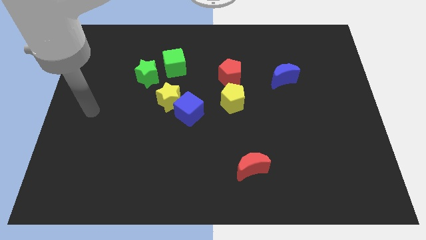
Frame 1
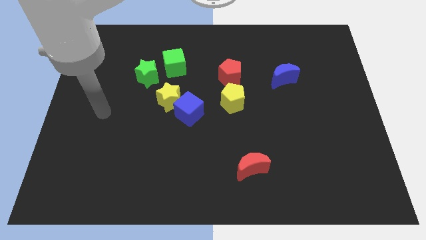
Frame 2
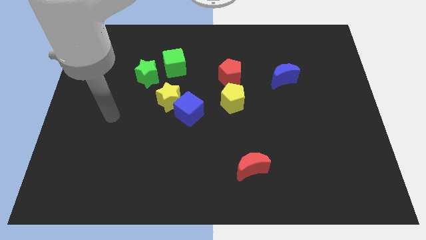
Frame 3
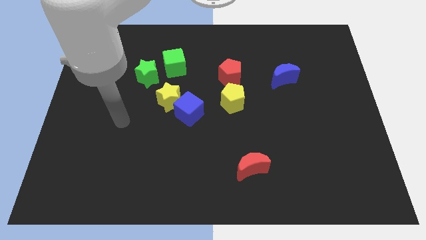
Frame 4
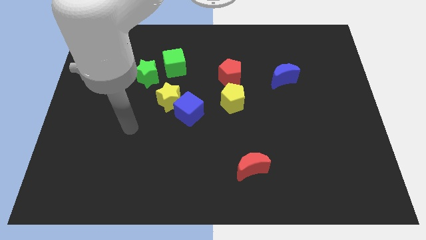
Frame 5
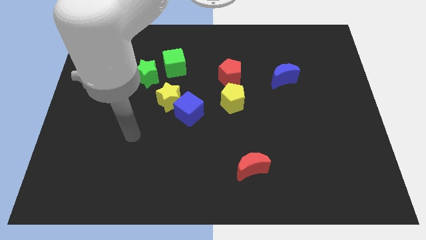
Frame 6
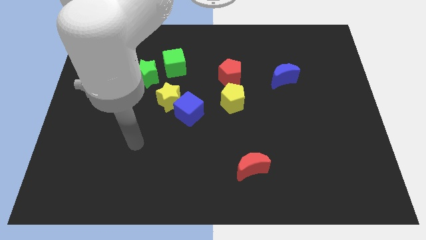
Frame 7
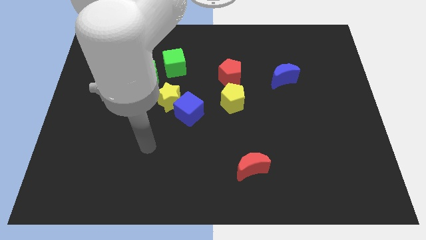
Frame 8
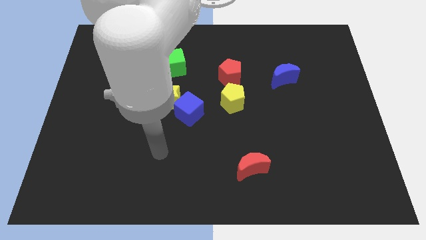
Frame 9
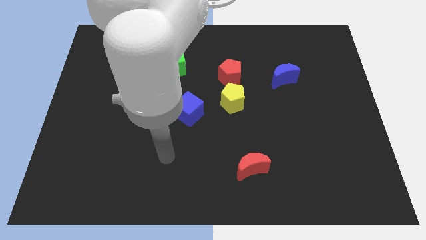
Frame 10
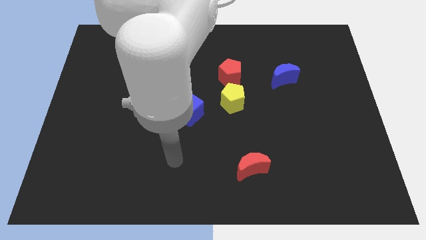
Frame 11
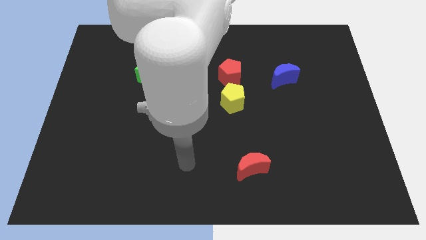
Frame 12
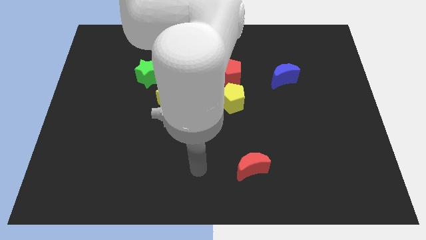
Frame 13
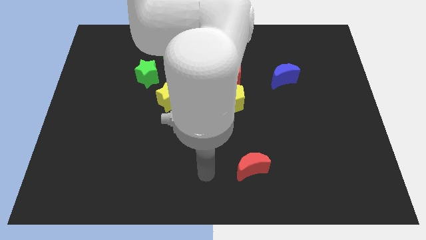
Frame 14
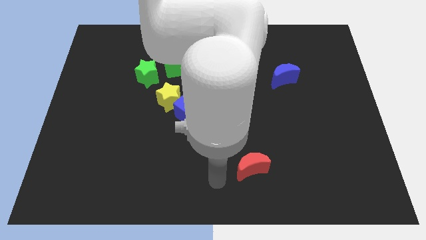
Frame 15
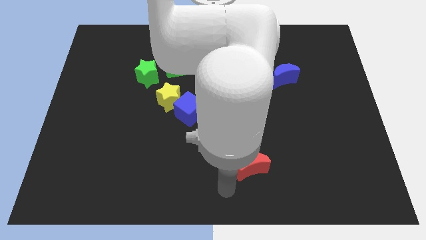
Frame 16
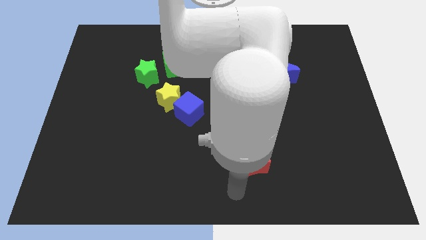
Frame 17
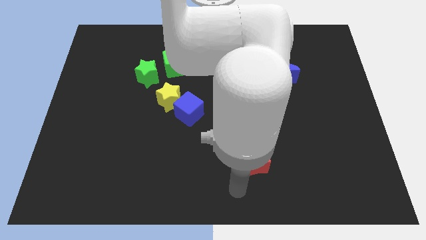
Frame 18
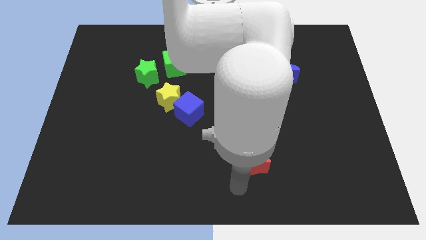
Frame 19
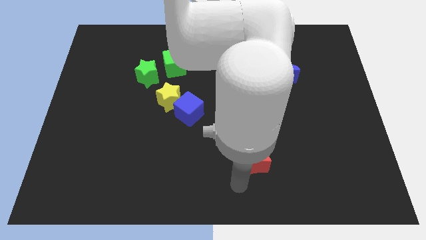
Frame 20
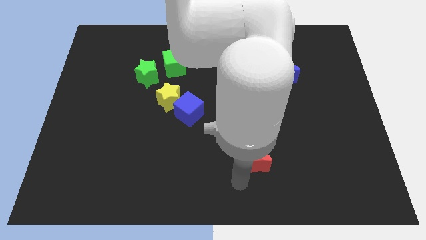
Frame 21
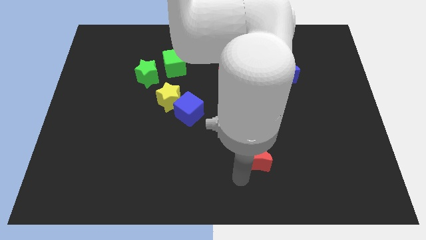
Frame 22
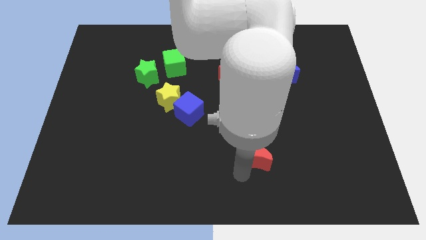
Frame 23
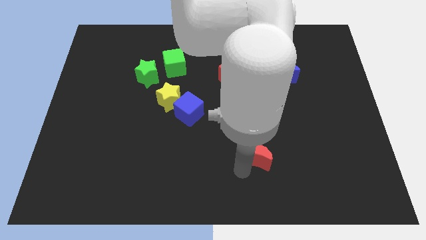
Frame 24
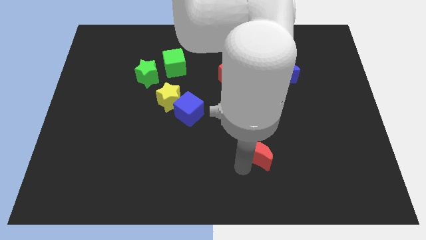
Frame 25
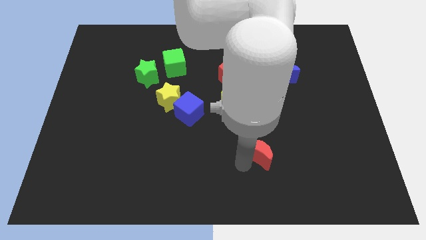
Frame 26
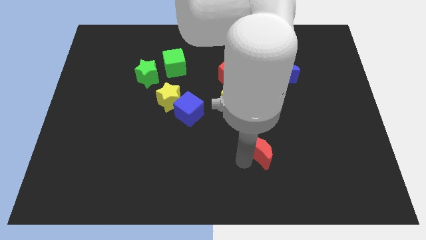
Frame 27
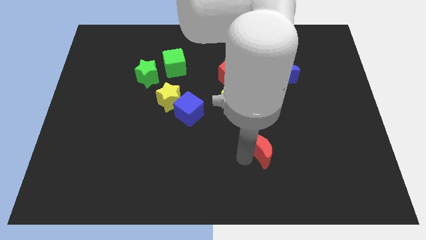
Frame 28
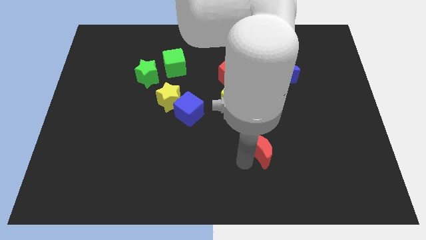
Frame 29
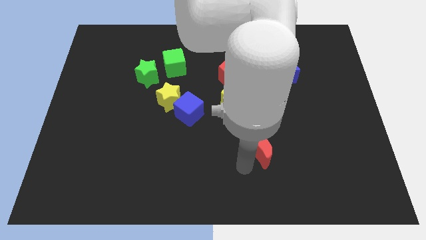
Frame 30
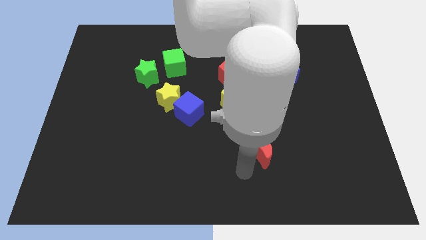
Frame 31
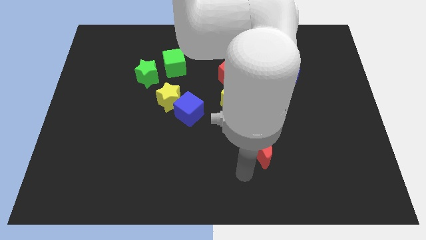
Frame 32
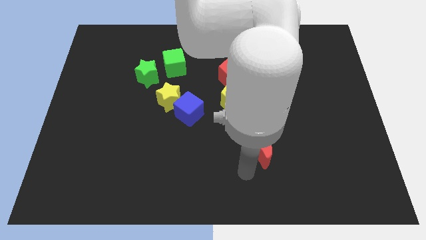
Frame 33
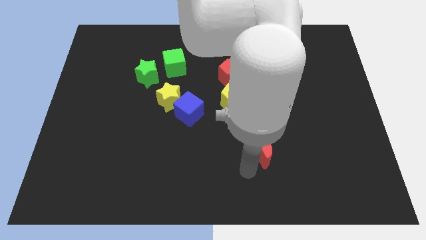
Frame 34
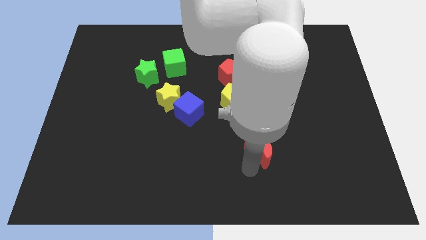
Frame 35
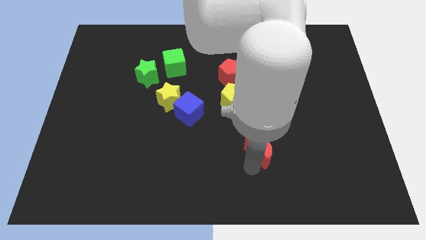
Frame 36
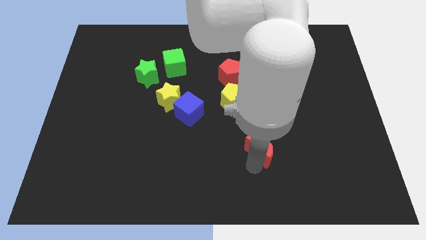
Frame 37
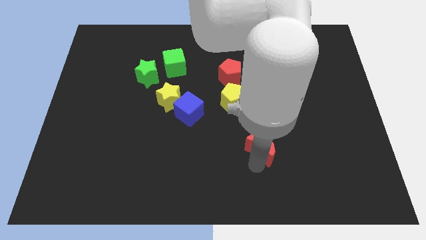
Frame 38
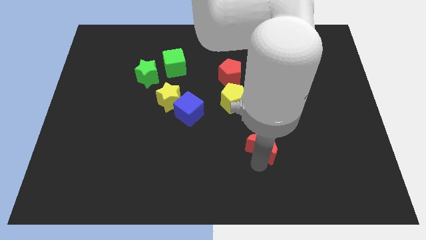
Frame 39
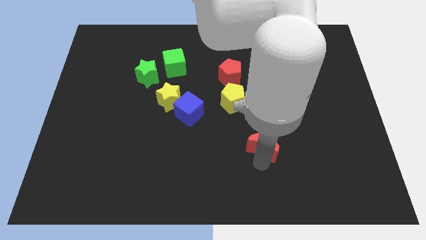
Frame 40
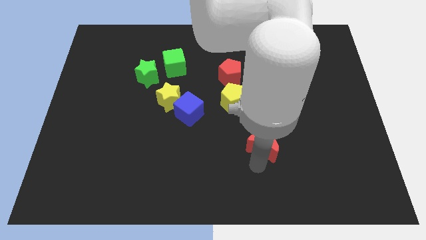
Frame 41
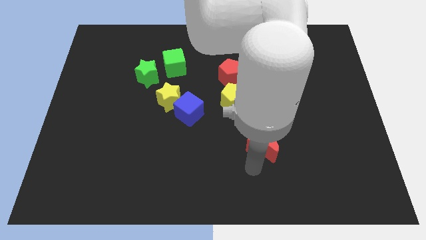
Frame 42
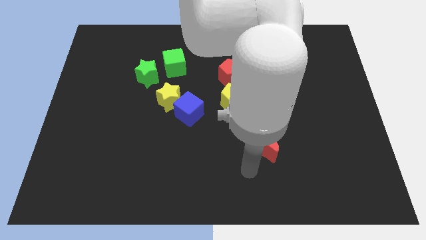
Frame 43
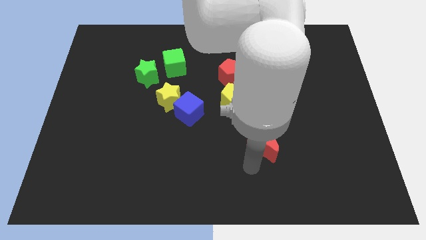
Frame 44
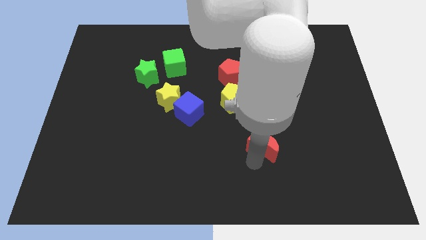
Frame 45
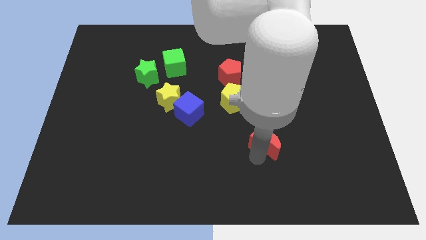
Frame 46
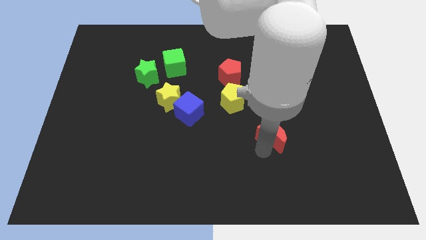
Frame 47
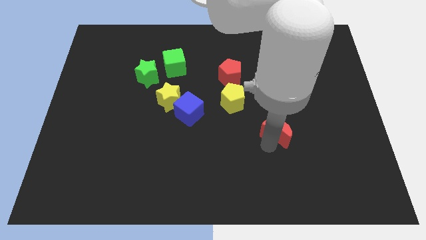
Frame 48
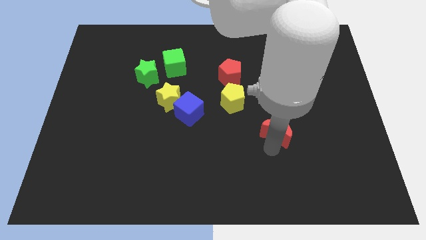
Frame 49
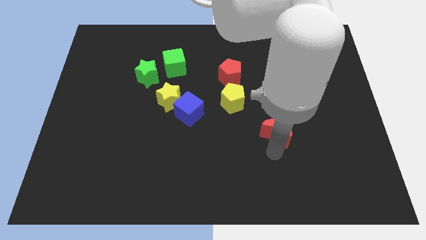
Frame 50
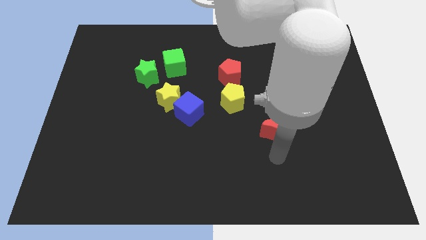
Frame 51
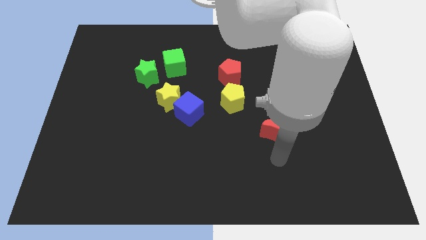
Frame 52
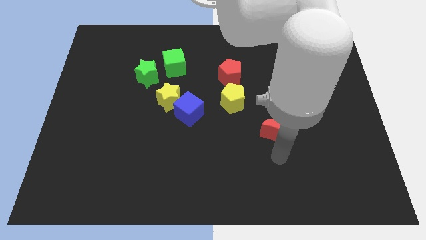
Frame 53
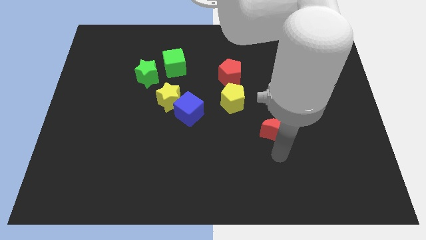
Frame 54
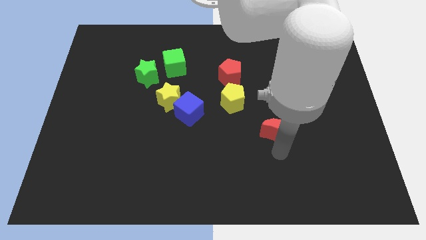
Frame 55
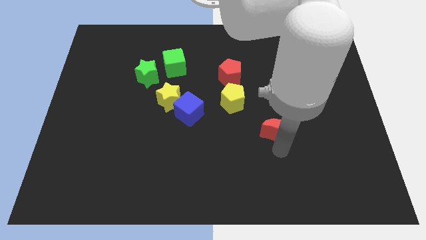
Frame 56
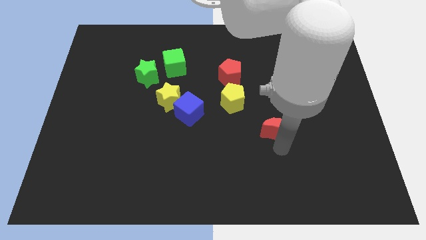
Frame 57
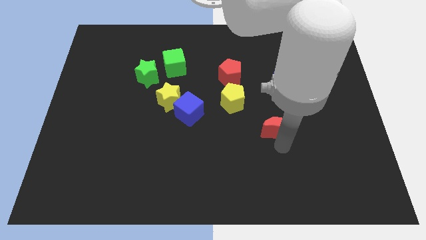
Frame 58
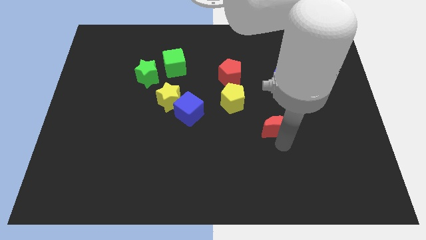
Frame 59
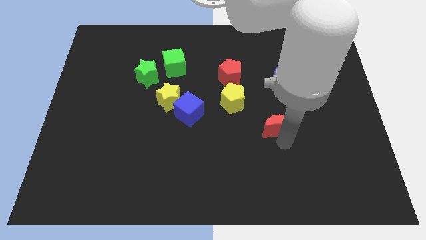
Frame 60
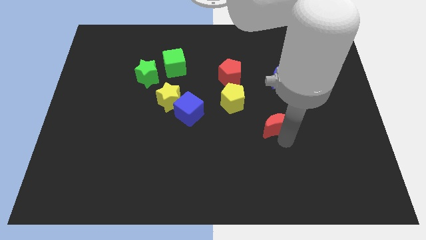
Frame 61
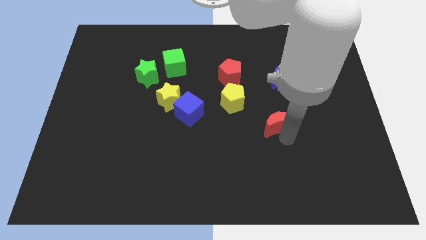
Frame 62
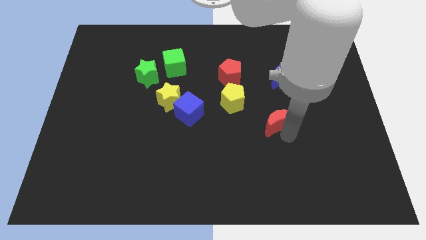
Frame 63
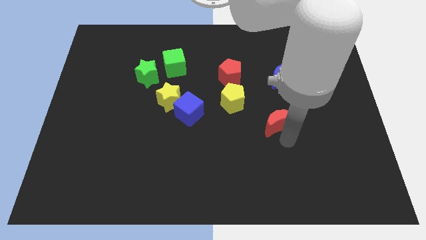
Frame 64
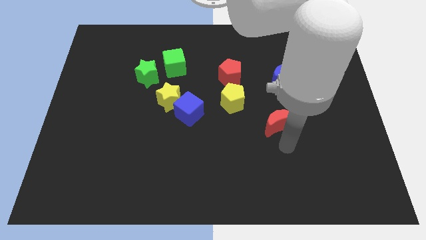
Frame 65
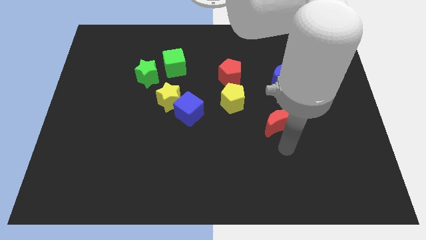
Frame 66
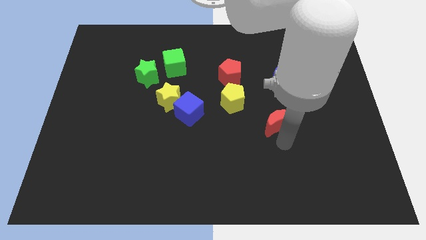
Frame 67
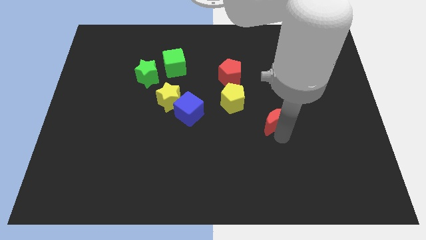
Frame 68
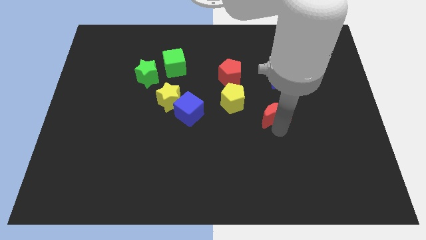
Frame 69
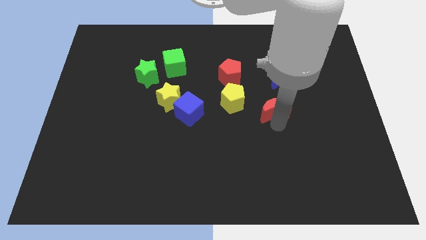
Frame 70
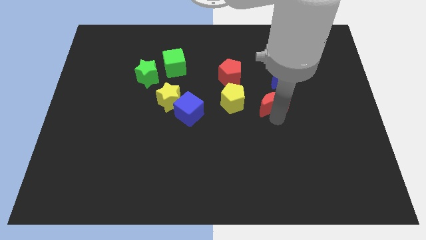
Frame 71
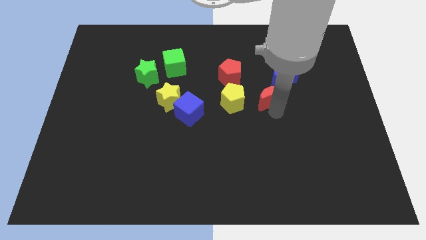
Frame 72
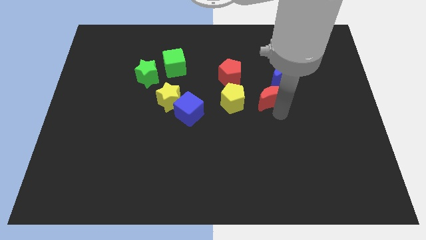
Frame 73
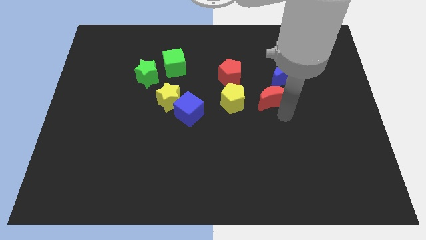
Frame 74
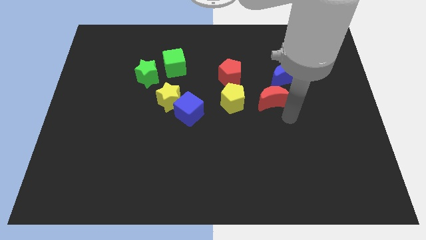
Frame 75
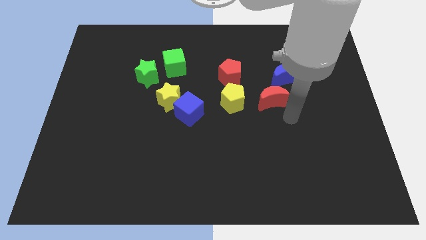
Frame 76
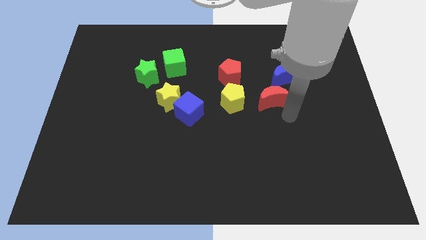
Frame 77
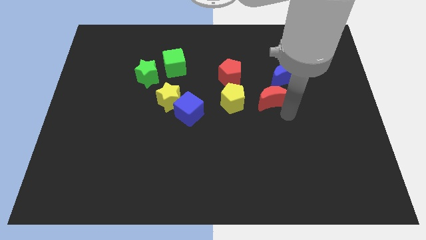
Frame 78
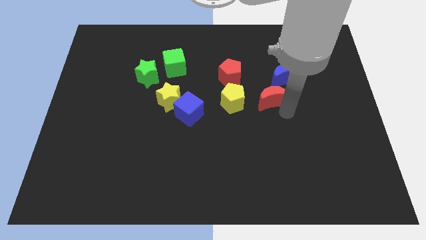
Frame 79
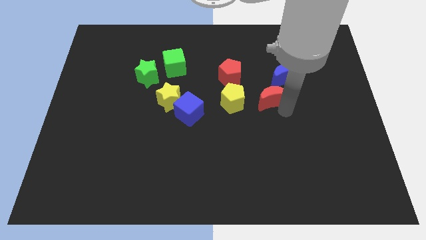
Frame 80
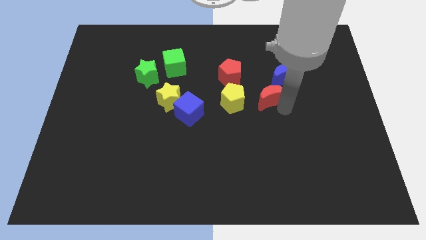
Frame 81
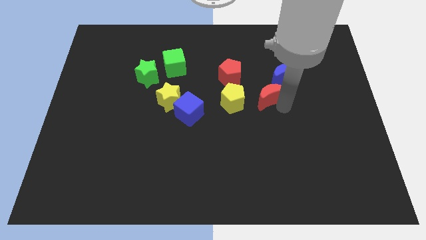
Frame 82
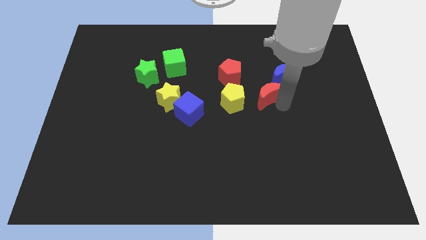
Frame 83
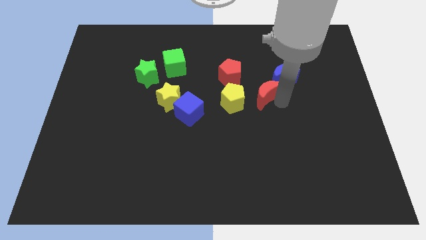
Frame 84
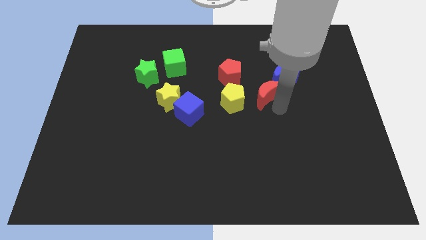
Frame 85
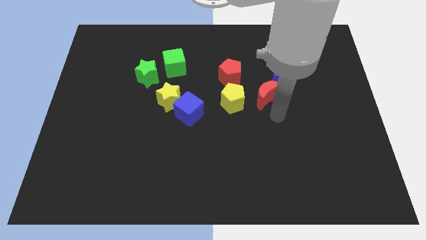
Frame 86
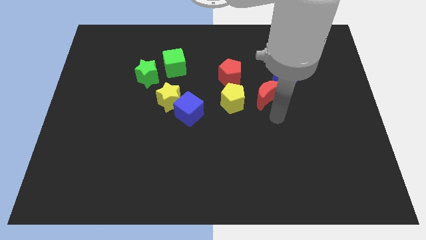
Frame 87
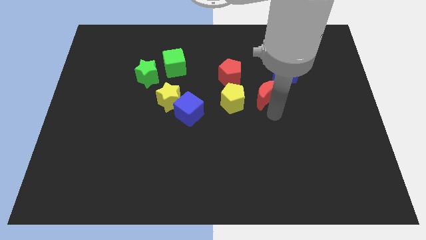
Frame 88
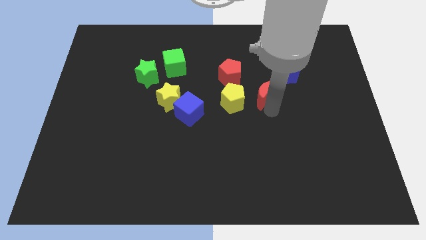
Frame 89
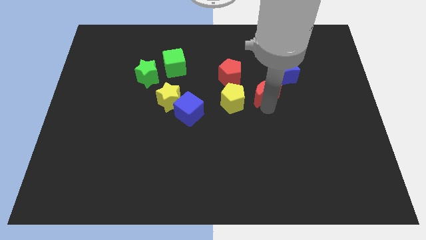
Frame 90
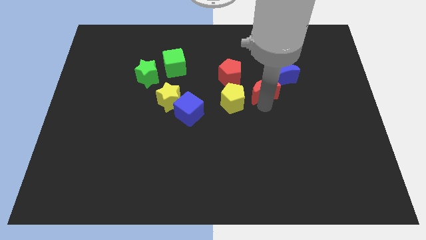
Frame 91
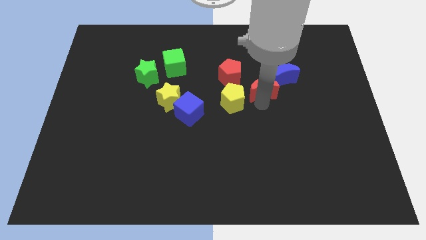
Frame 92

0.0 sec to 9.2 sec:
push the red moon up
